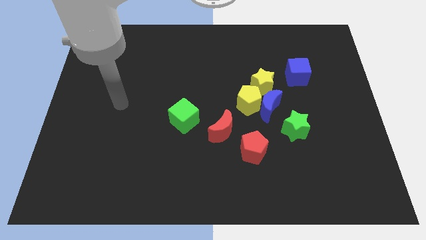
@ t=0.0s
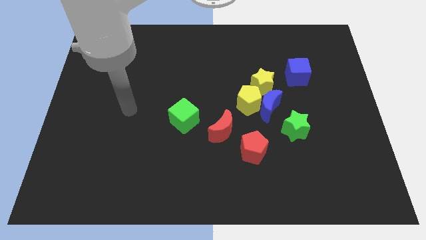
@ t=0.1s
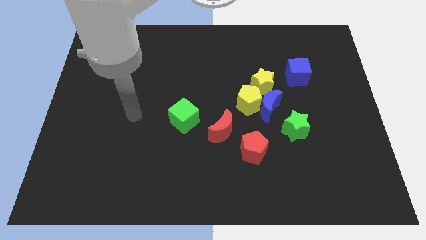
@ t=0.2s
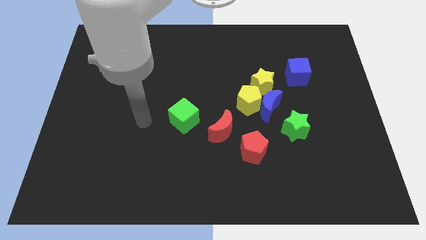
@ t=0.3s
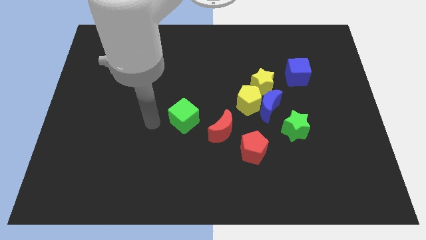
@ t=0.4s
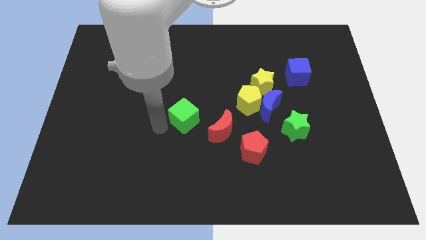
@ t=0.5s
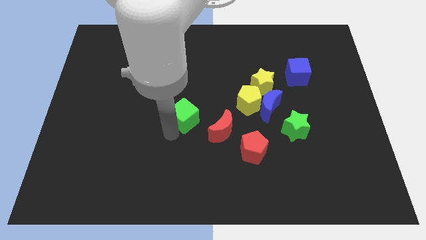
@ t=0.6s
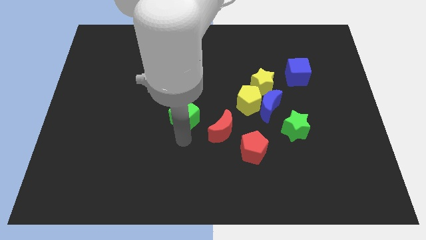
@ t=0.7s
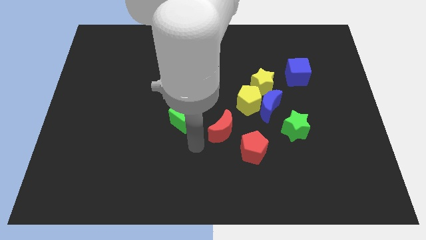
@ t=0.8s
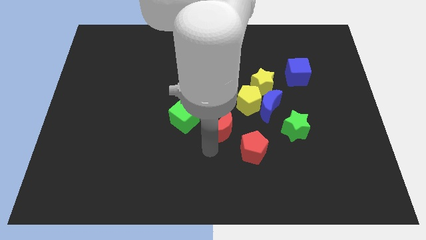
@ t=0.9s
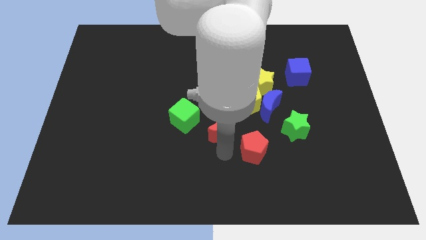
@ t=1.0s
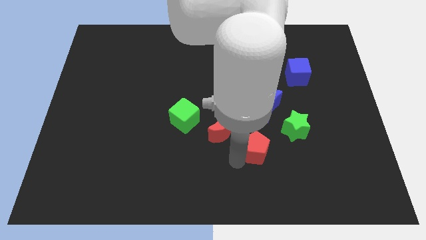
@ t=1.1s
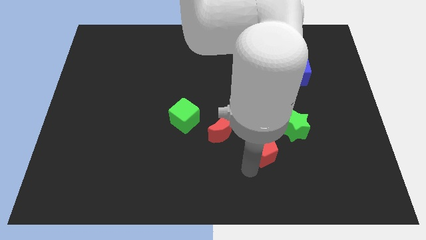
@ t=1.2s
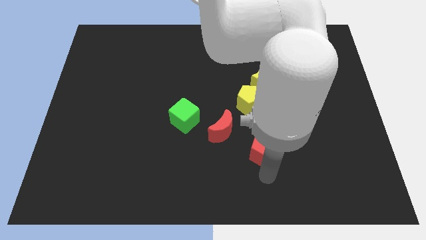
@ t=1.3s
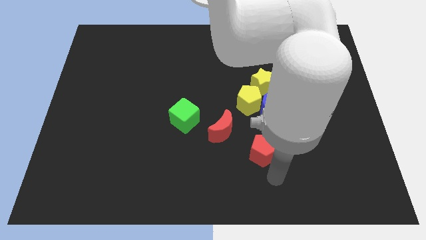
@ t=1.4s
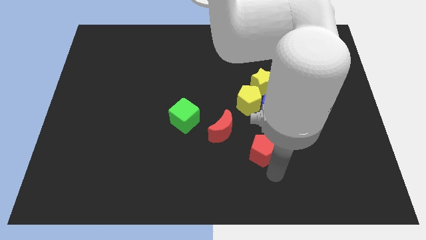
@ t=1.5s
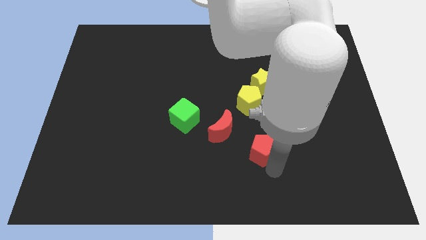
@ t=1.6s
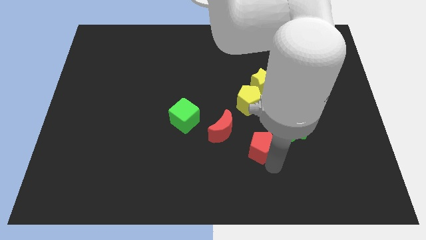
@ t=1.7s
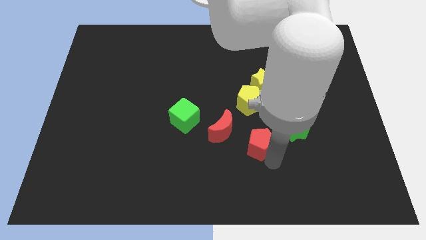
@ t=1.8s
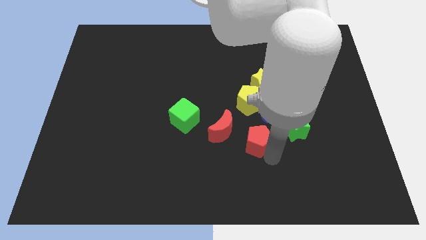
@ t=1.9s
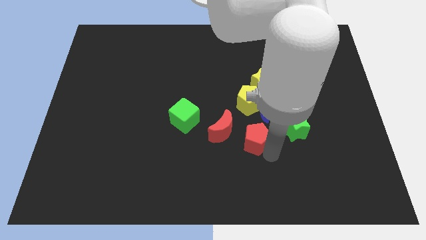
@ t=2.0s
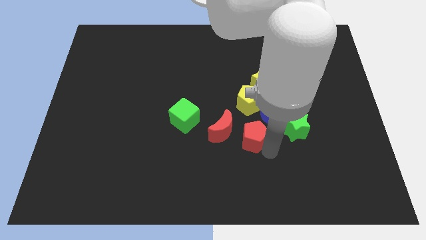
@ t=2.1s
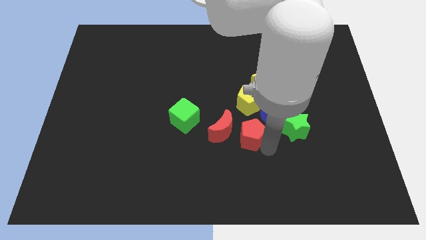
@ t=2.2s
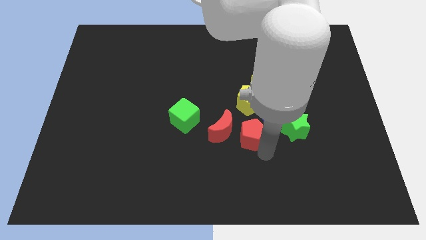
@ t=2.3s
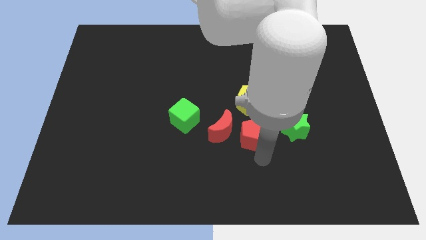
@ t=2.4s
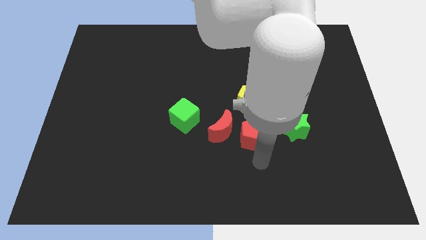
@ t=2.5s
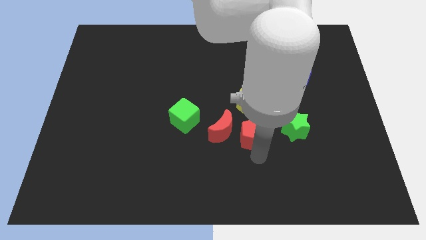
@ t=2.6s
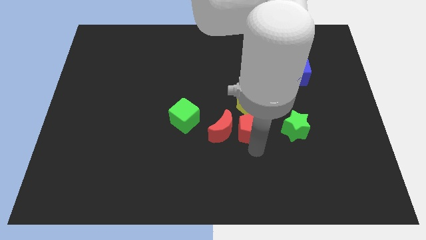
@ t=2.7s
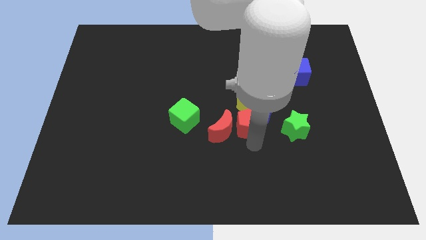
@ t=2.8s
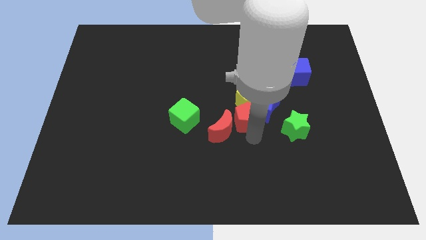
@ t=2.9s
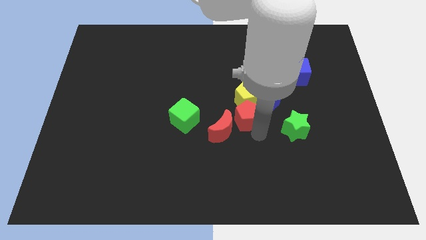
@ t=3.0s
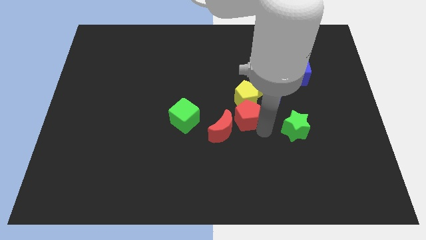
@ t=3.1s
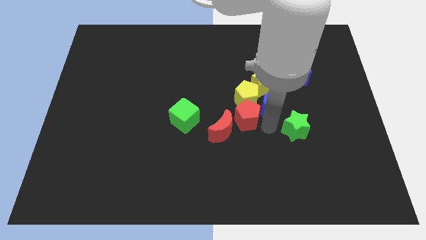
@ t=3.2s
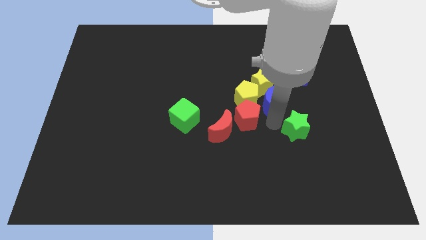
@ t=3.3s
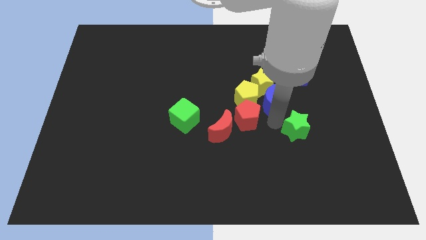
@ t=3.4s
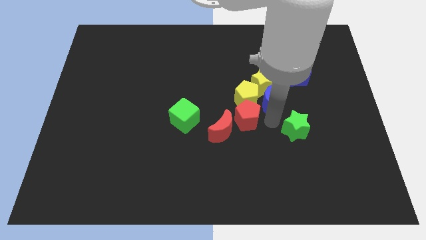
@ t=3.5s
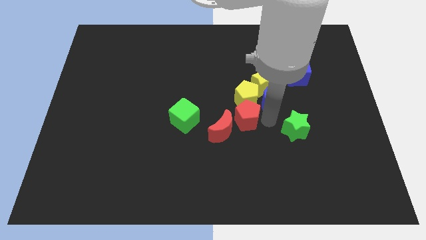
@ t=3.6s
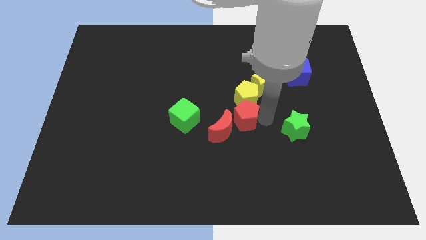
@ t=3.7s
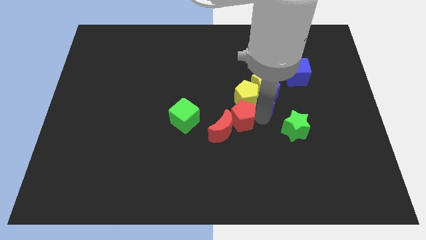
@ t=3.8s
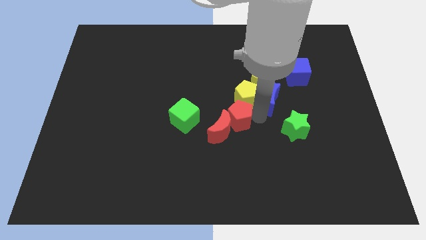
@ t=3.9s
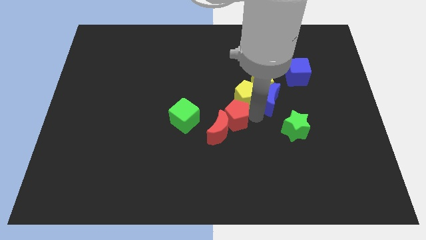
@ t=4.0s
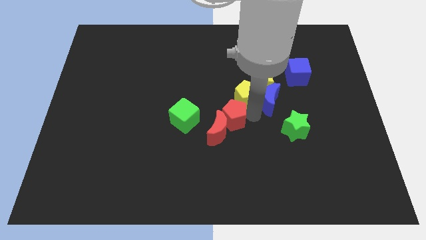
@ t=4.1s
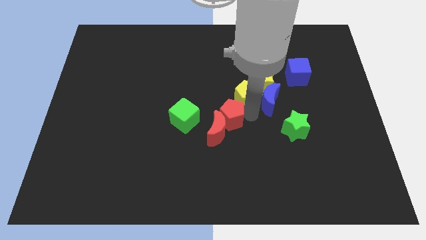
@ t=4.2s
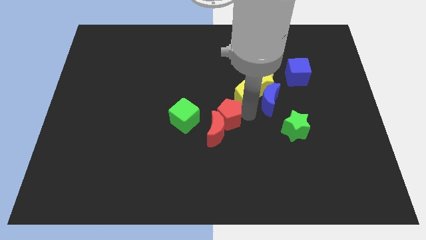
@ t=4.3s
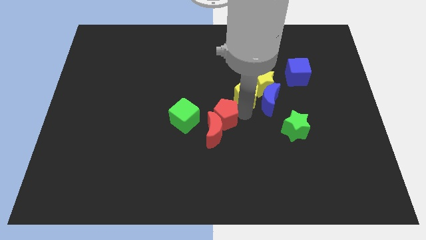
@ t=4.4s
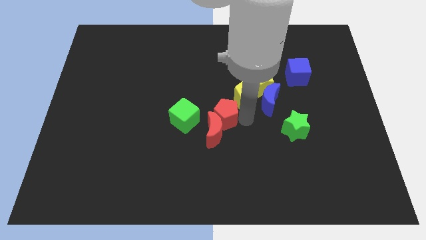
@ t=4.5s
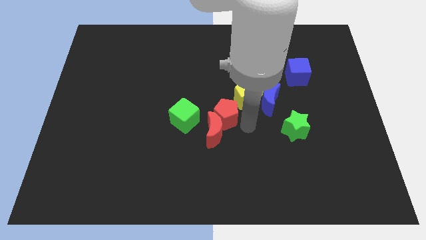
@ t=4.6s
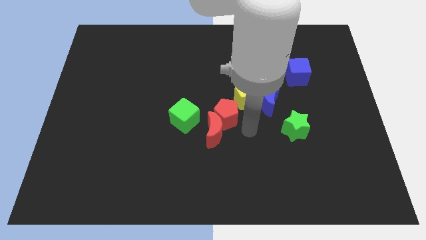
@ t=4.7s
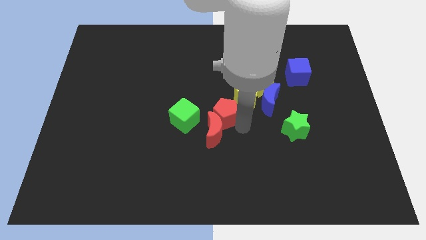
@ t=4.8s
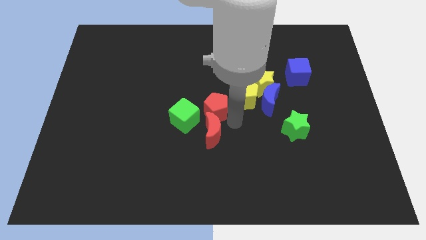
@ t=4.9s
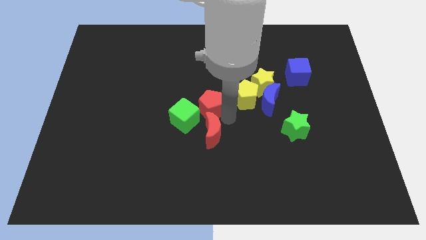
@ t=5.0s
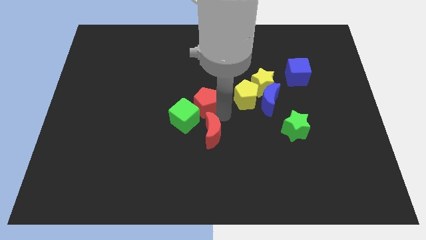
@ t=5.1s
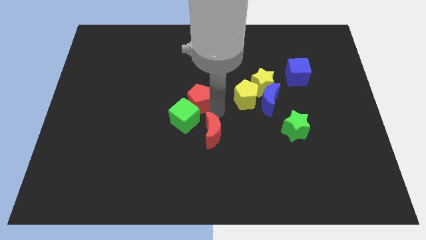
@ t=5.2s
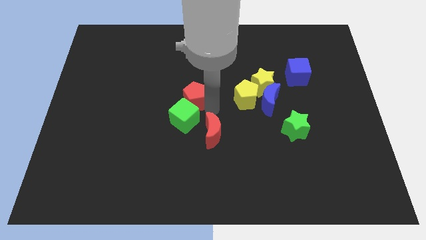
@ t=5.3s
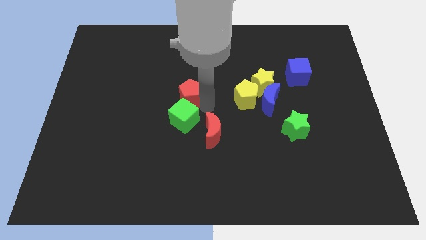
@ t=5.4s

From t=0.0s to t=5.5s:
move the red pentagon upwards and then to the left

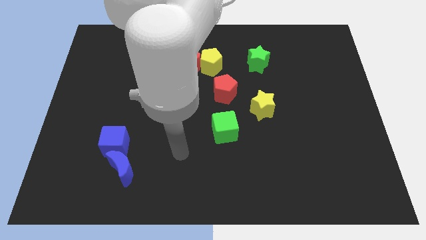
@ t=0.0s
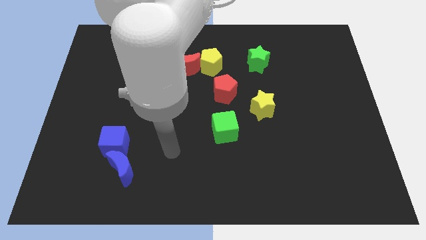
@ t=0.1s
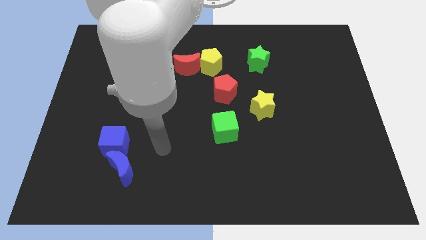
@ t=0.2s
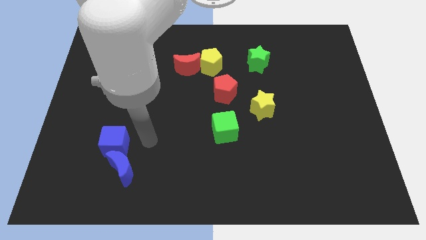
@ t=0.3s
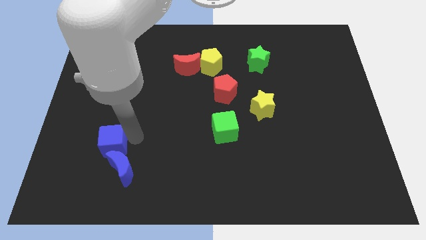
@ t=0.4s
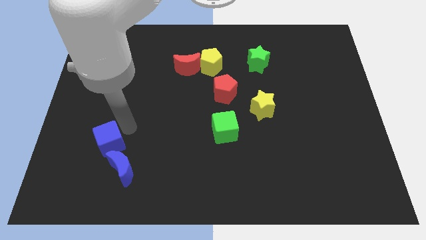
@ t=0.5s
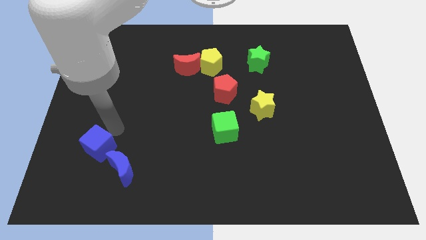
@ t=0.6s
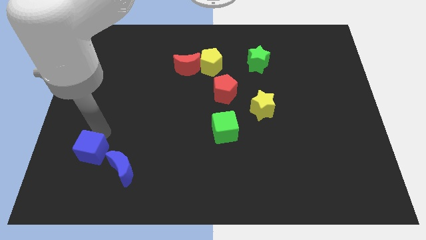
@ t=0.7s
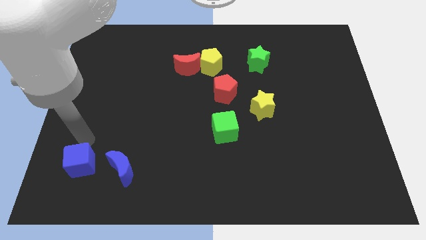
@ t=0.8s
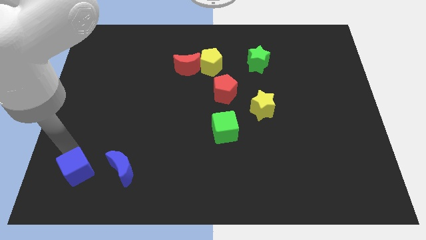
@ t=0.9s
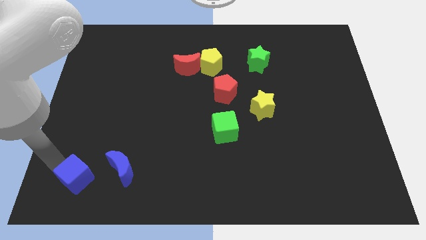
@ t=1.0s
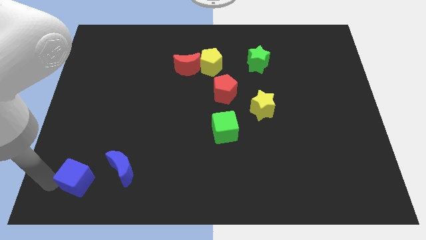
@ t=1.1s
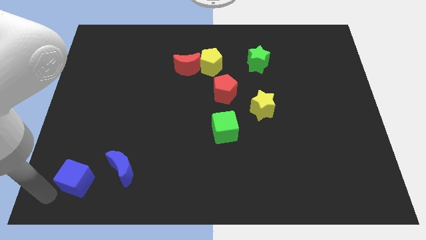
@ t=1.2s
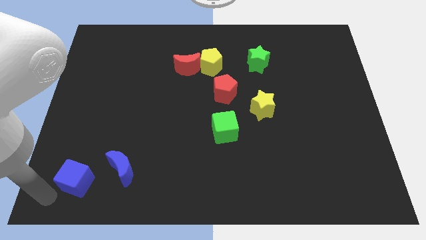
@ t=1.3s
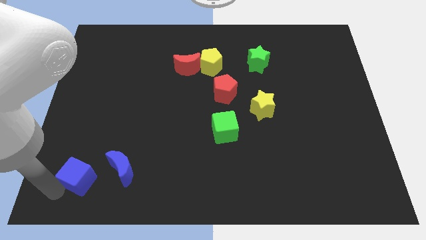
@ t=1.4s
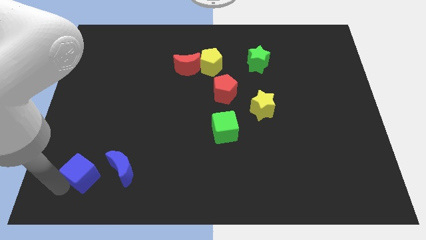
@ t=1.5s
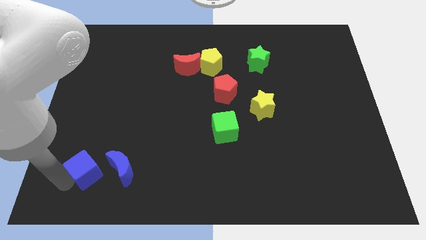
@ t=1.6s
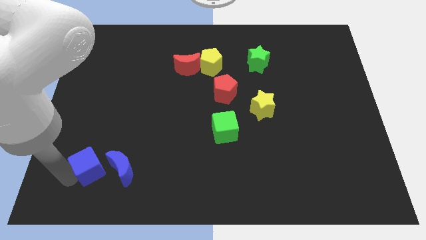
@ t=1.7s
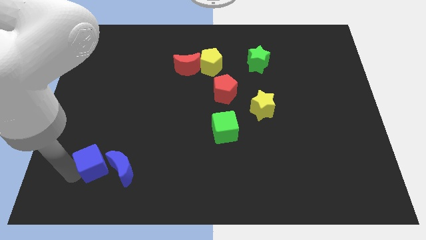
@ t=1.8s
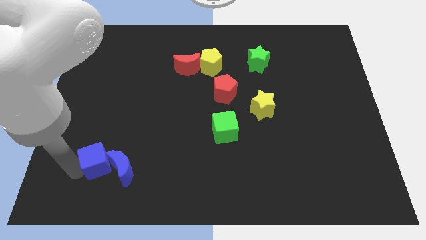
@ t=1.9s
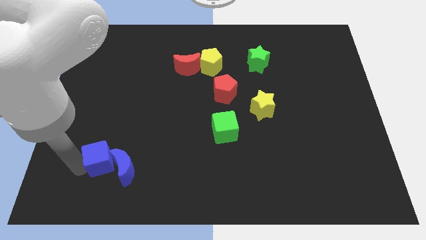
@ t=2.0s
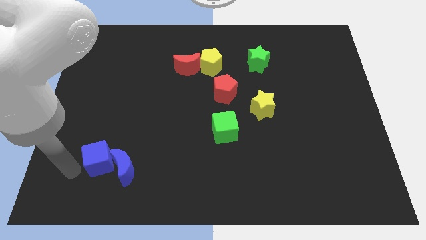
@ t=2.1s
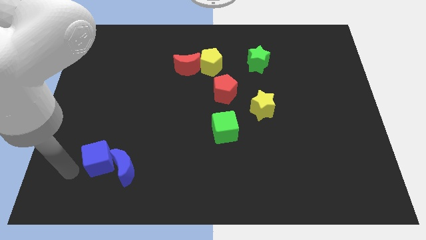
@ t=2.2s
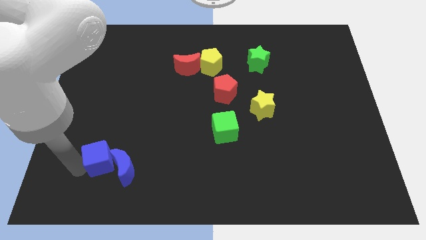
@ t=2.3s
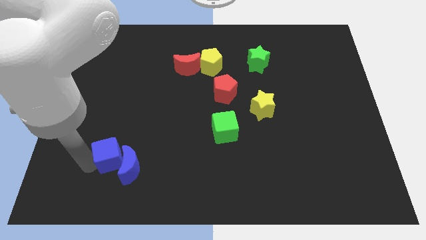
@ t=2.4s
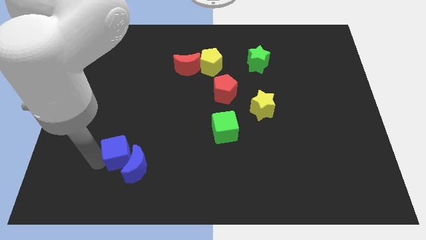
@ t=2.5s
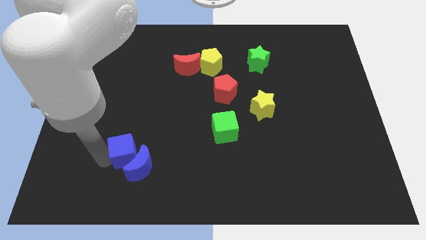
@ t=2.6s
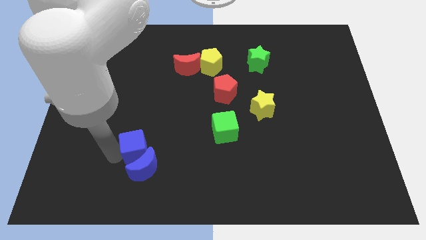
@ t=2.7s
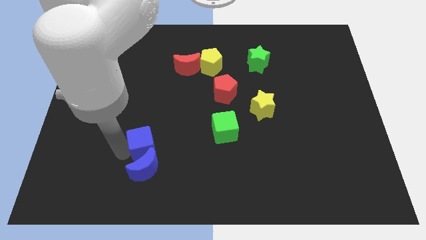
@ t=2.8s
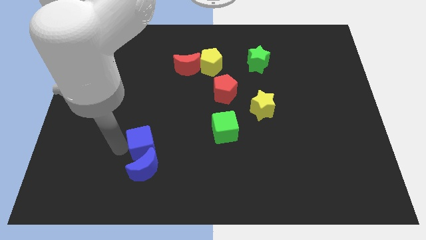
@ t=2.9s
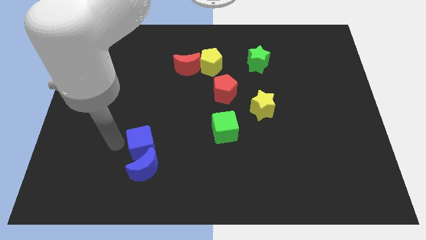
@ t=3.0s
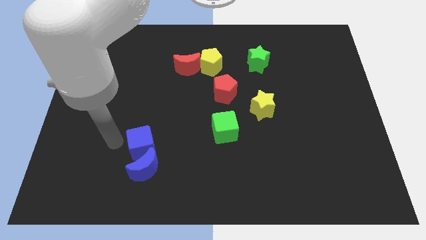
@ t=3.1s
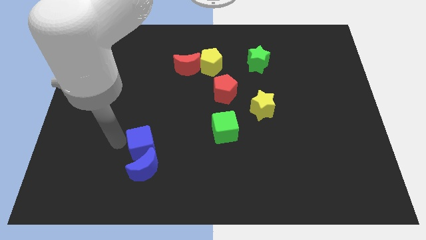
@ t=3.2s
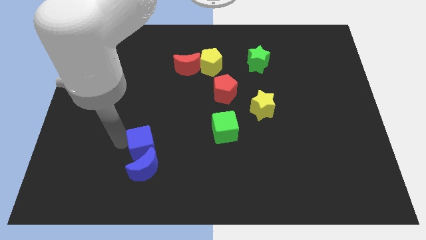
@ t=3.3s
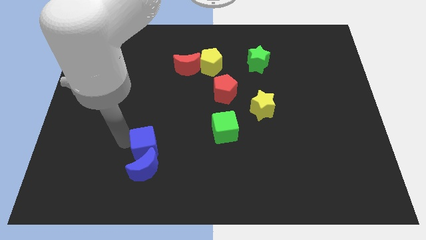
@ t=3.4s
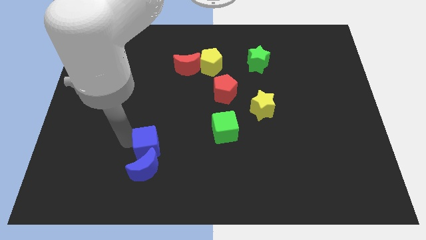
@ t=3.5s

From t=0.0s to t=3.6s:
slightly push the blue cube to the right
